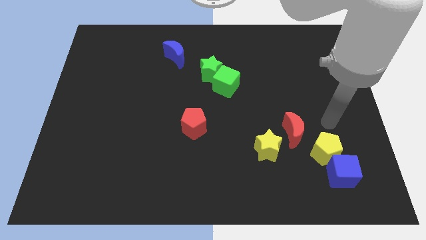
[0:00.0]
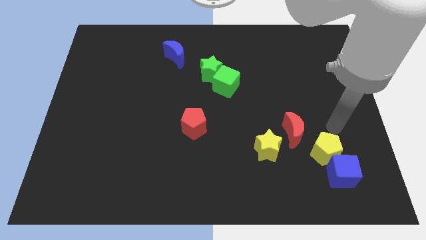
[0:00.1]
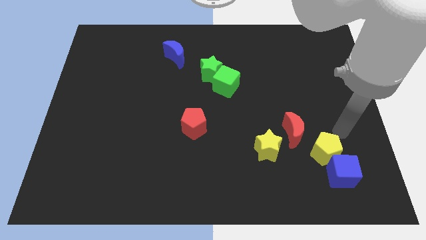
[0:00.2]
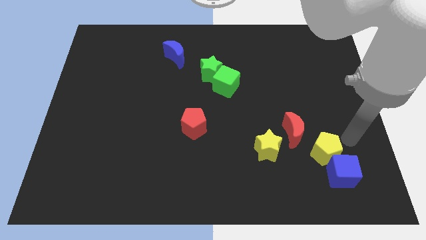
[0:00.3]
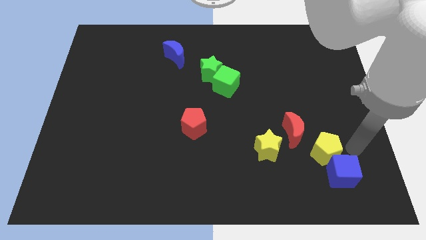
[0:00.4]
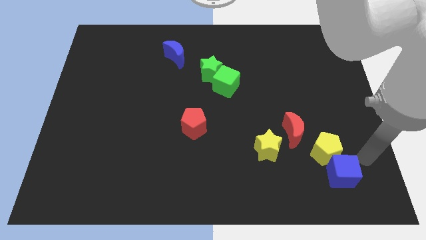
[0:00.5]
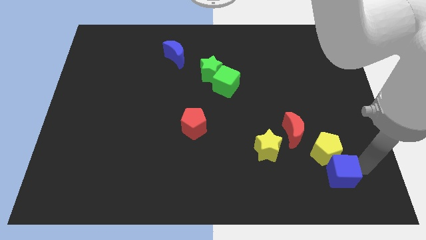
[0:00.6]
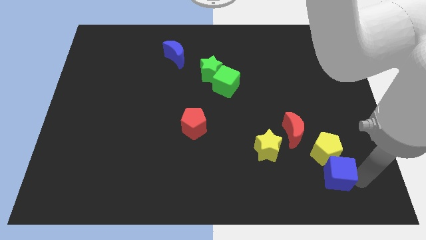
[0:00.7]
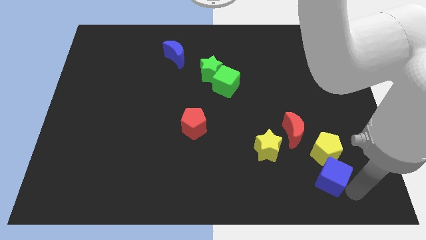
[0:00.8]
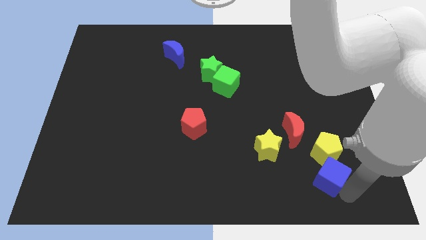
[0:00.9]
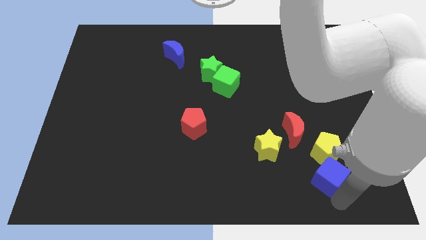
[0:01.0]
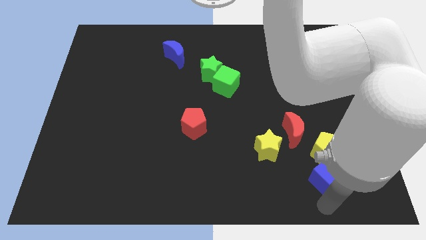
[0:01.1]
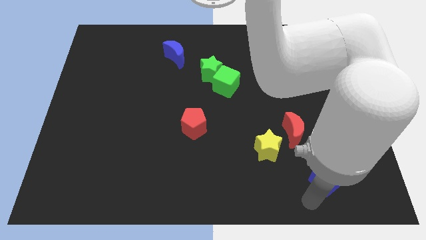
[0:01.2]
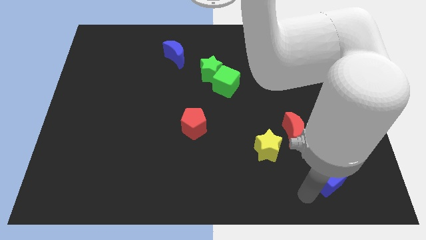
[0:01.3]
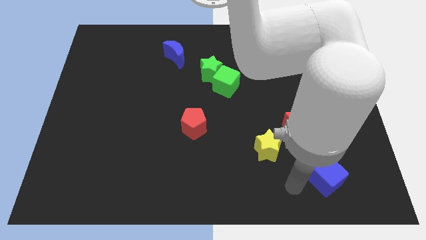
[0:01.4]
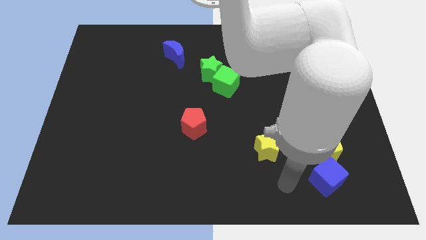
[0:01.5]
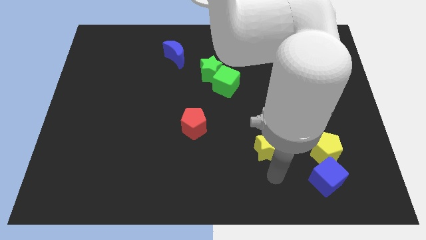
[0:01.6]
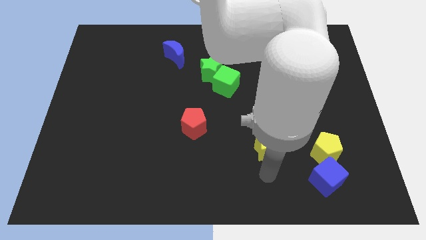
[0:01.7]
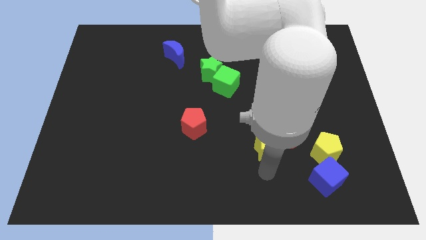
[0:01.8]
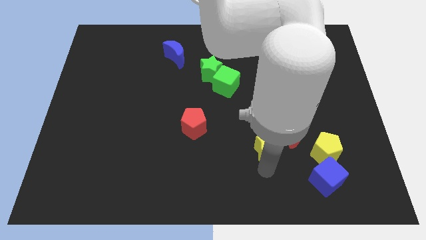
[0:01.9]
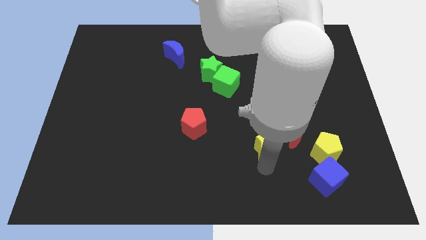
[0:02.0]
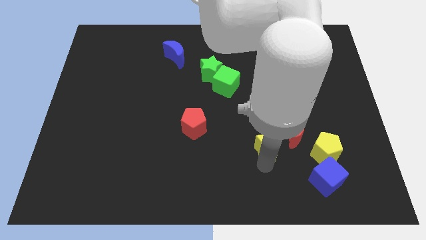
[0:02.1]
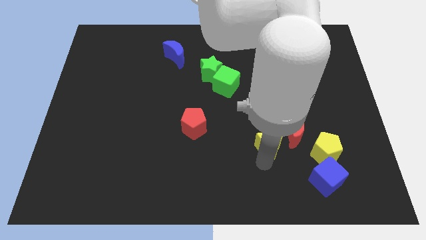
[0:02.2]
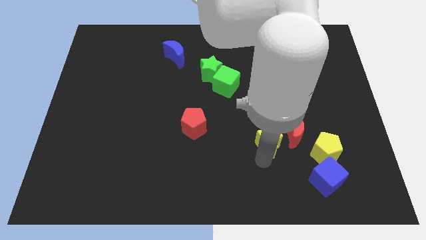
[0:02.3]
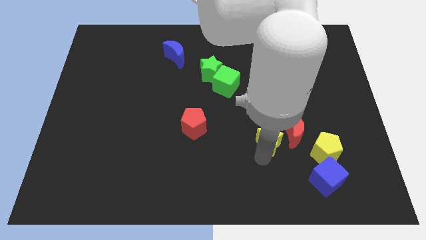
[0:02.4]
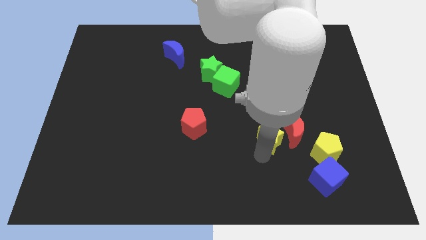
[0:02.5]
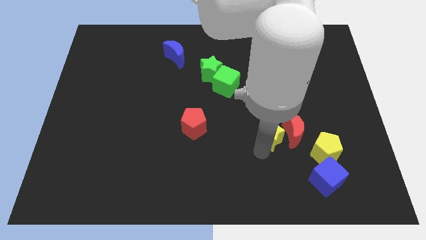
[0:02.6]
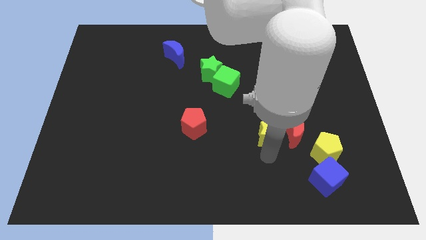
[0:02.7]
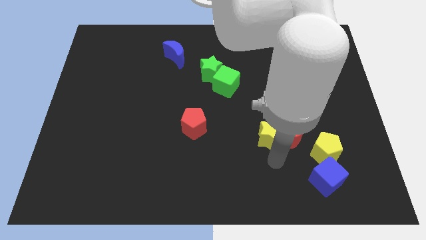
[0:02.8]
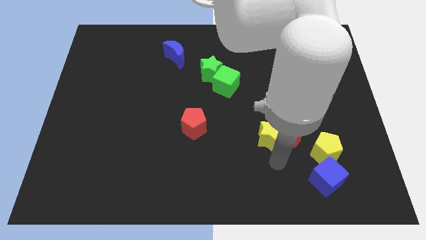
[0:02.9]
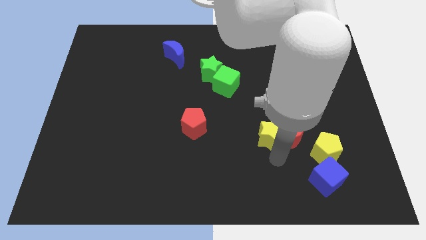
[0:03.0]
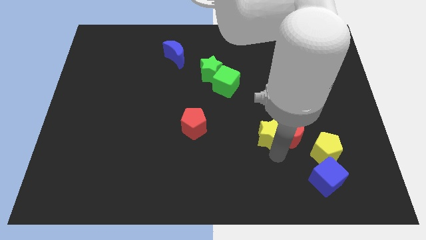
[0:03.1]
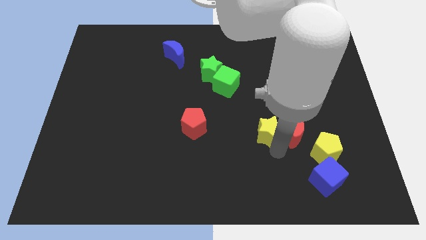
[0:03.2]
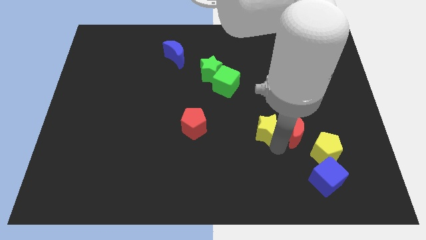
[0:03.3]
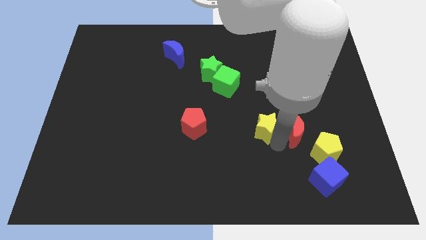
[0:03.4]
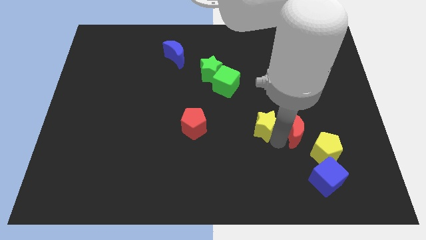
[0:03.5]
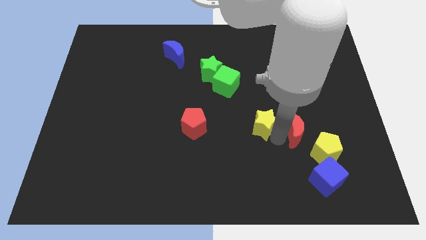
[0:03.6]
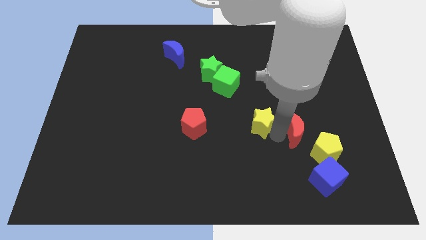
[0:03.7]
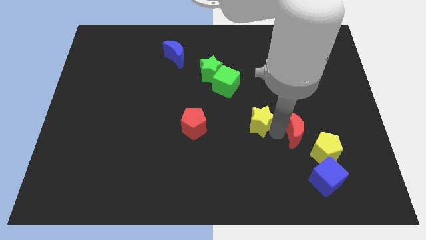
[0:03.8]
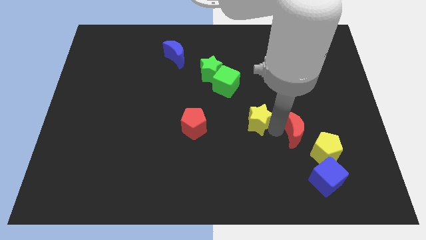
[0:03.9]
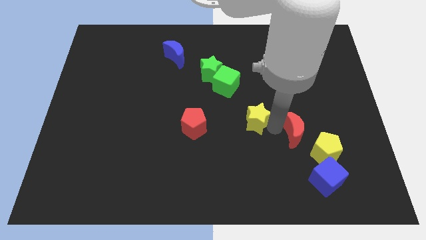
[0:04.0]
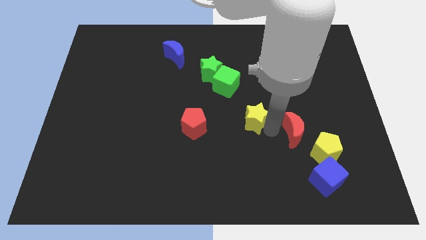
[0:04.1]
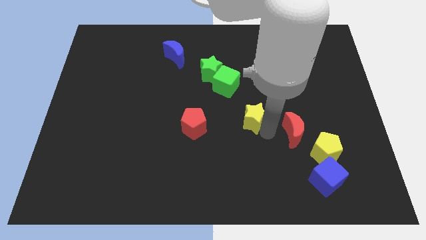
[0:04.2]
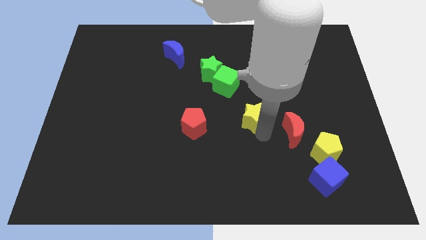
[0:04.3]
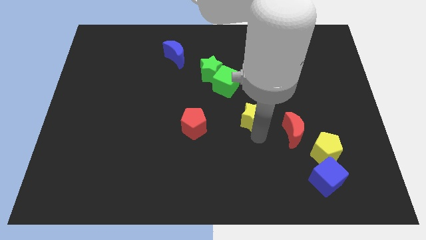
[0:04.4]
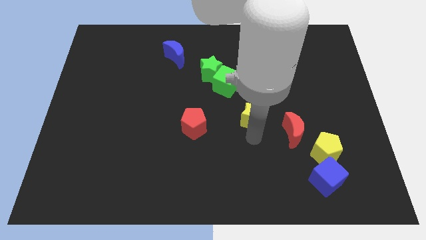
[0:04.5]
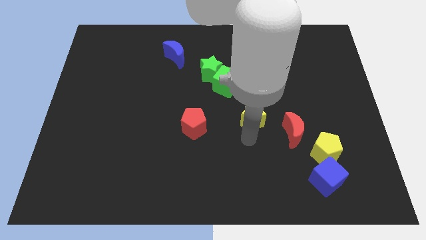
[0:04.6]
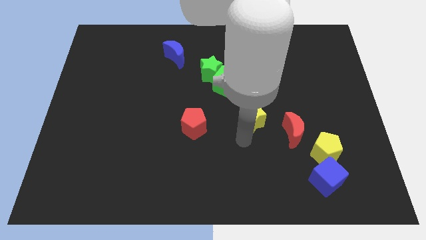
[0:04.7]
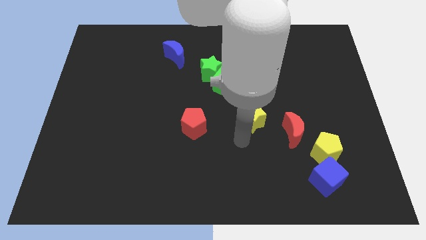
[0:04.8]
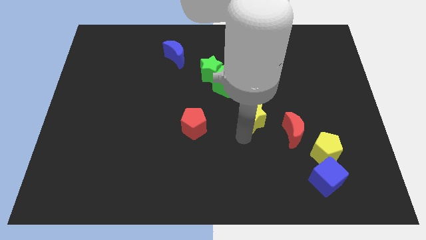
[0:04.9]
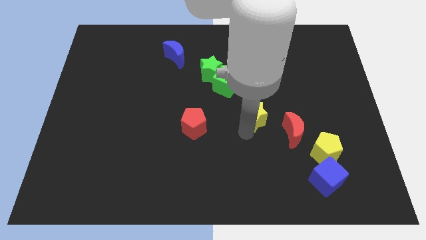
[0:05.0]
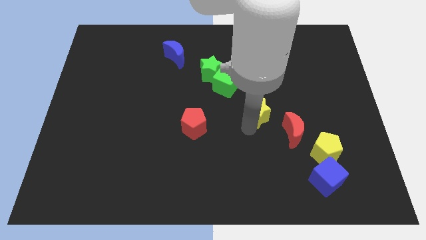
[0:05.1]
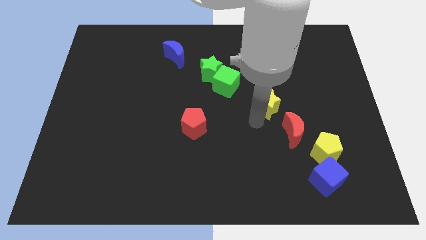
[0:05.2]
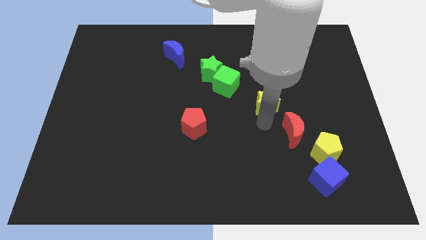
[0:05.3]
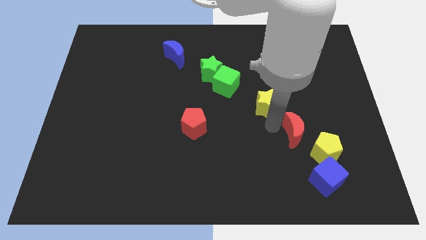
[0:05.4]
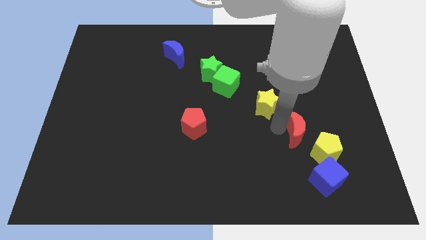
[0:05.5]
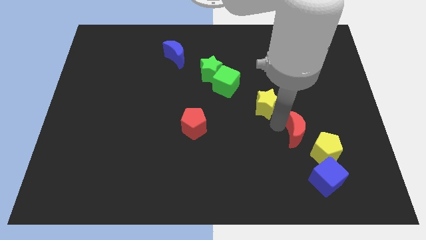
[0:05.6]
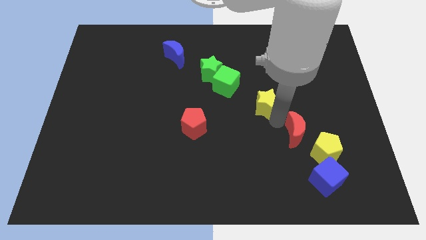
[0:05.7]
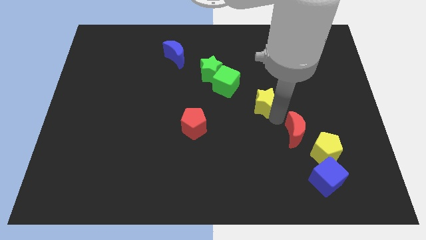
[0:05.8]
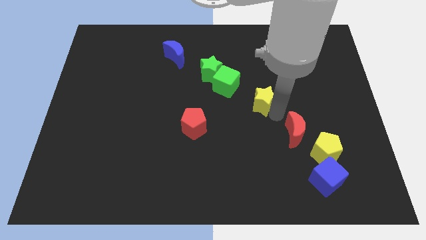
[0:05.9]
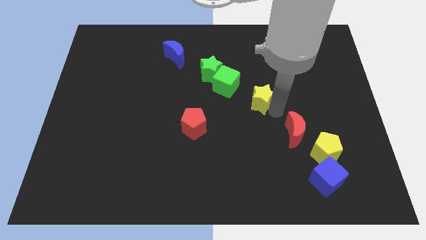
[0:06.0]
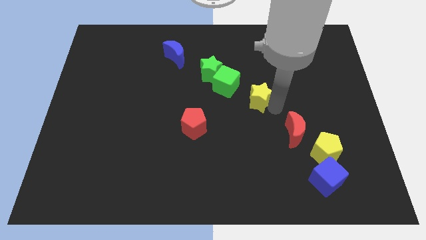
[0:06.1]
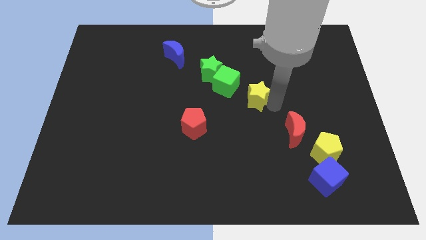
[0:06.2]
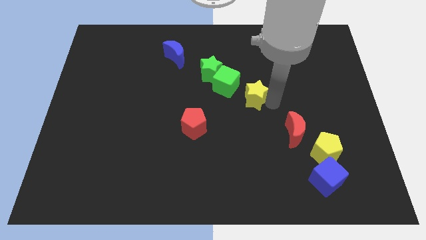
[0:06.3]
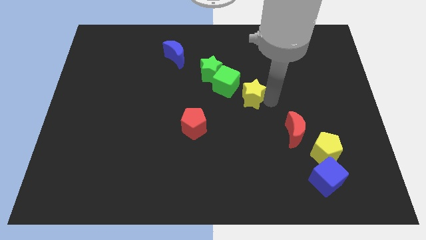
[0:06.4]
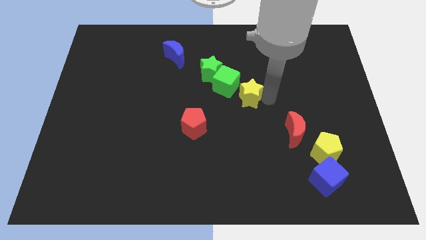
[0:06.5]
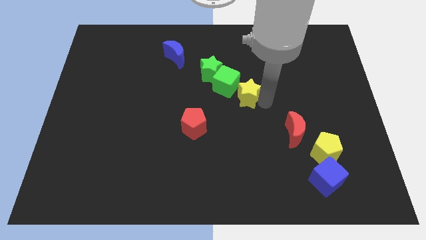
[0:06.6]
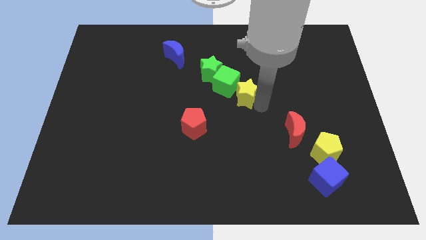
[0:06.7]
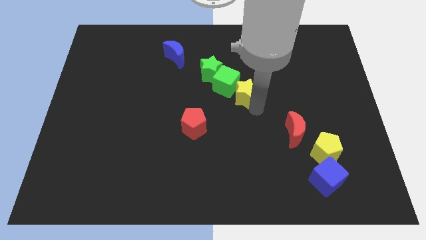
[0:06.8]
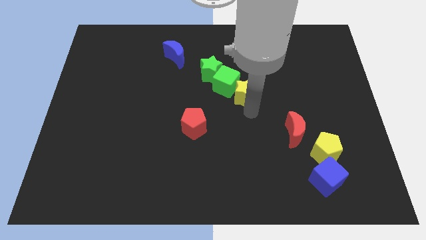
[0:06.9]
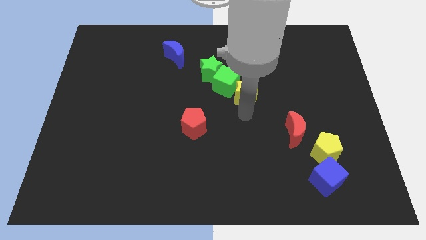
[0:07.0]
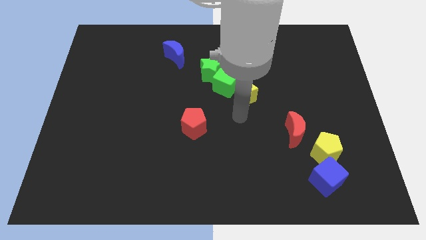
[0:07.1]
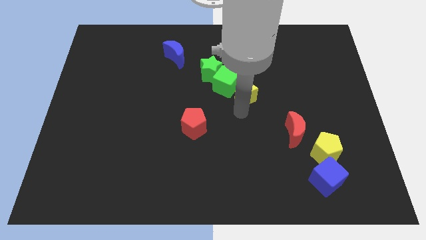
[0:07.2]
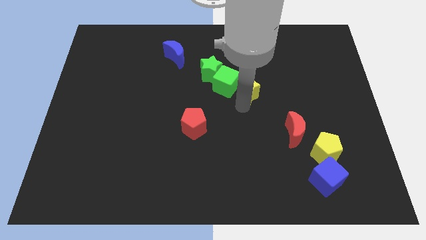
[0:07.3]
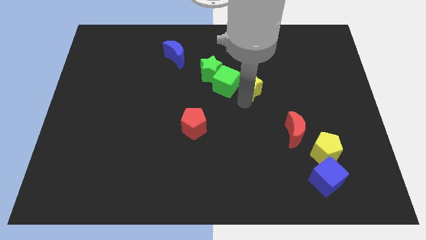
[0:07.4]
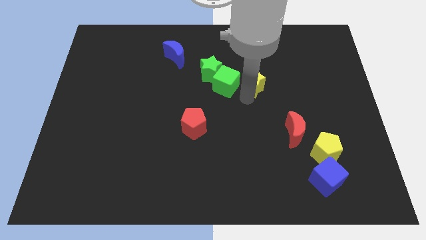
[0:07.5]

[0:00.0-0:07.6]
slide the yellow star diagonally up and to the right of the green cube
